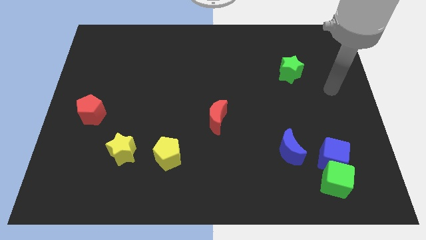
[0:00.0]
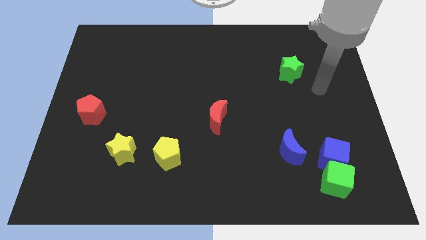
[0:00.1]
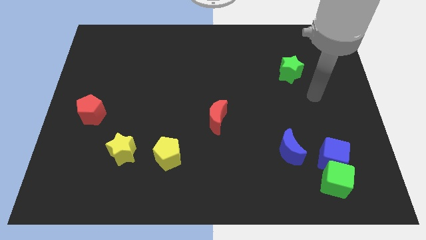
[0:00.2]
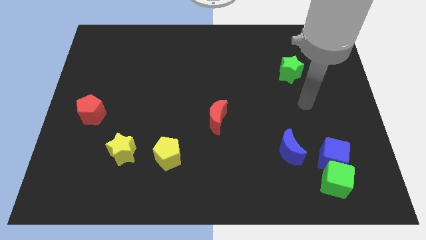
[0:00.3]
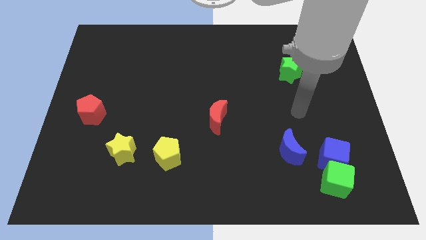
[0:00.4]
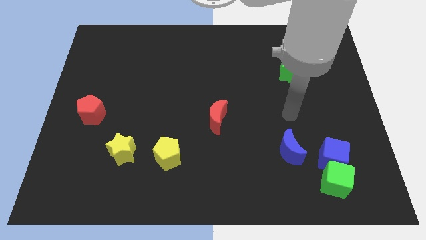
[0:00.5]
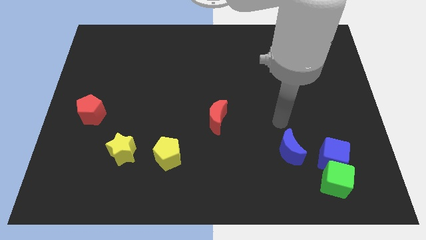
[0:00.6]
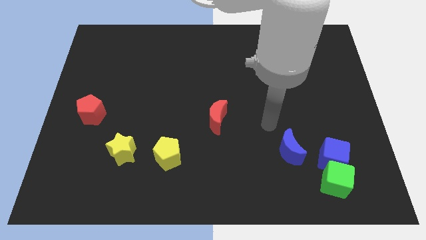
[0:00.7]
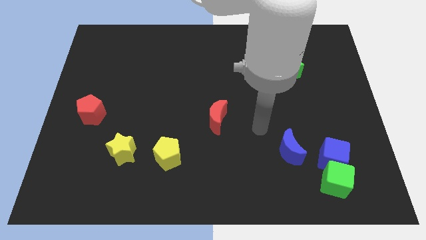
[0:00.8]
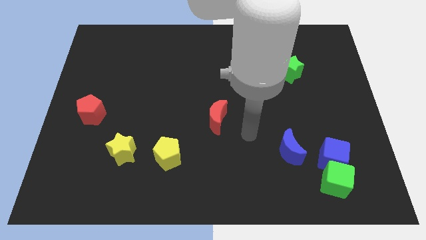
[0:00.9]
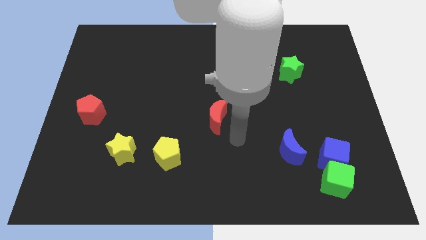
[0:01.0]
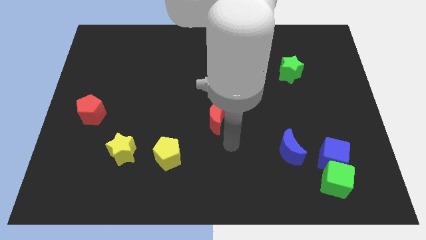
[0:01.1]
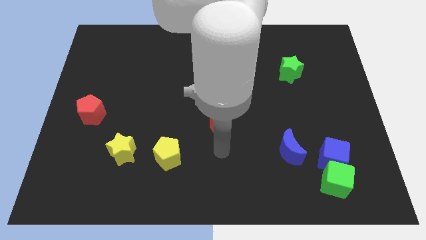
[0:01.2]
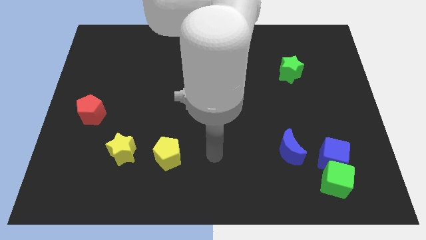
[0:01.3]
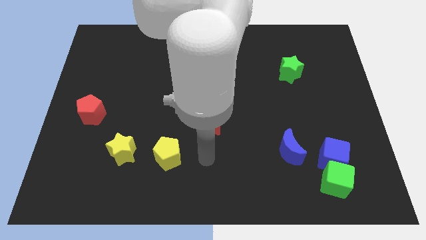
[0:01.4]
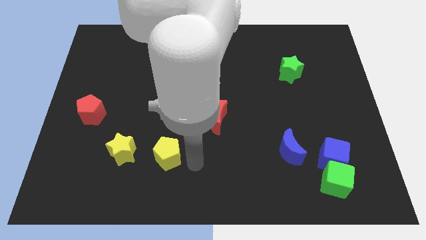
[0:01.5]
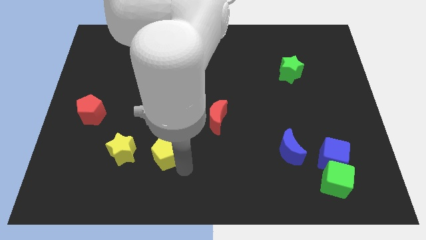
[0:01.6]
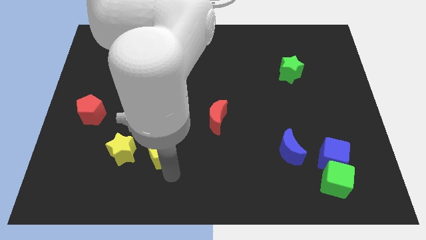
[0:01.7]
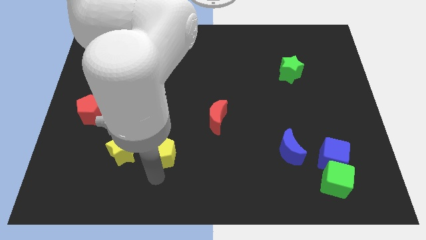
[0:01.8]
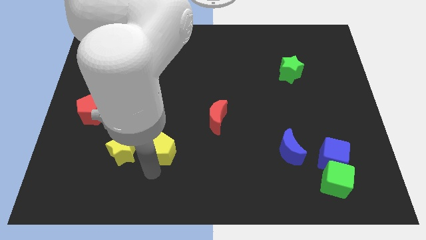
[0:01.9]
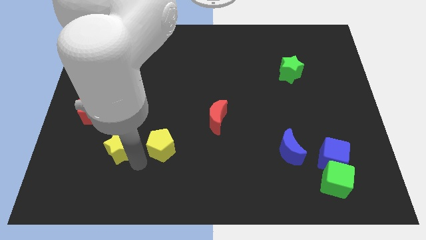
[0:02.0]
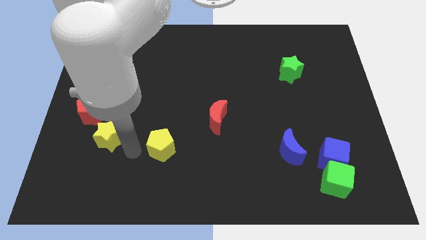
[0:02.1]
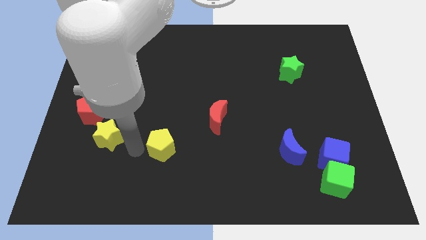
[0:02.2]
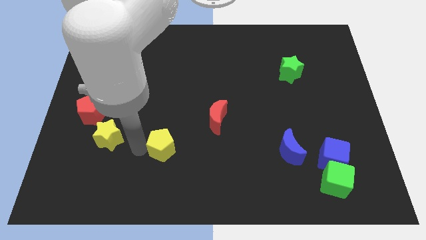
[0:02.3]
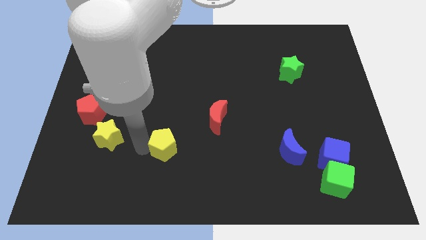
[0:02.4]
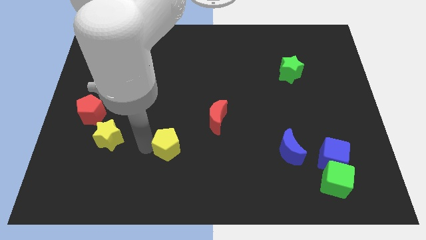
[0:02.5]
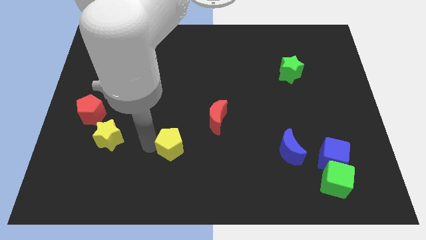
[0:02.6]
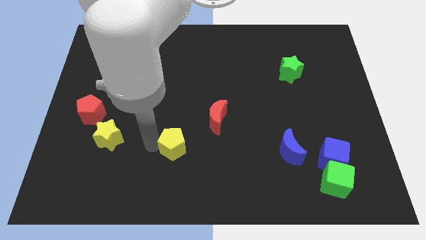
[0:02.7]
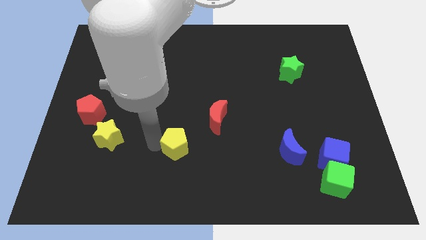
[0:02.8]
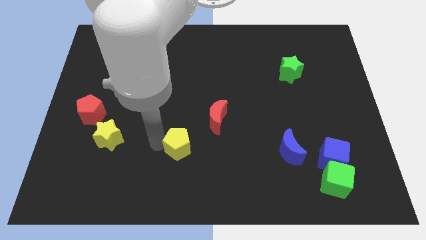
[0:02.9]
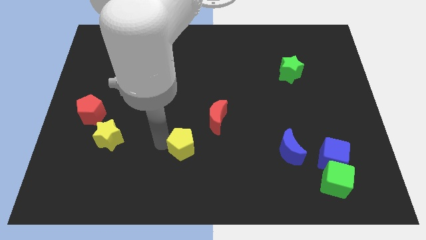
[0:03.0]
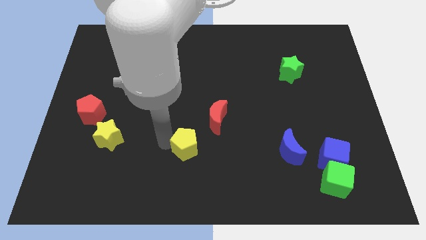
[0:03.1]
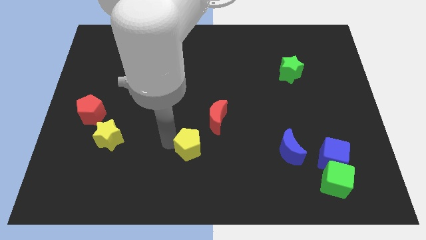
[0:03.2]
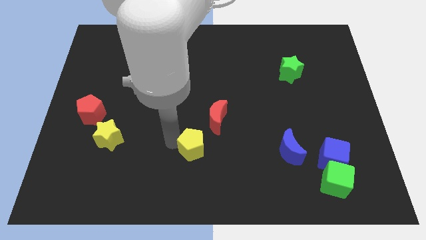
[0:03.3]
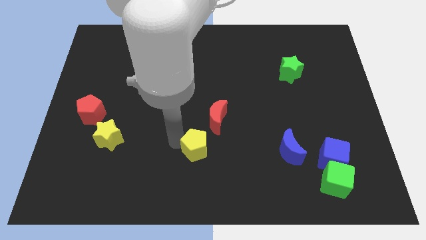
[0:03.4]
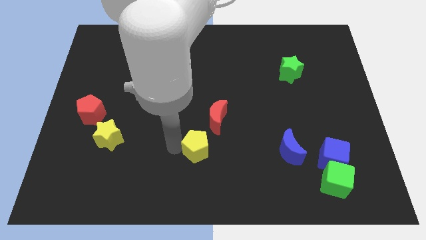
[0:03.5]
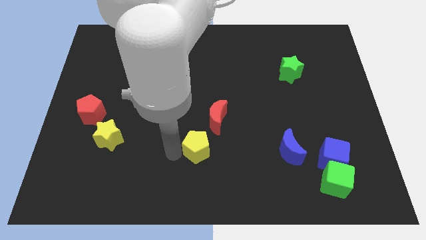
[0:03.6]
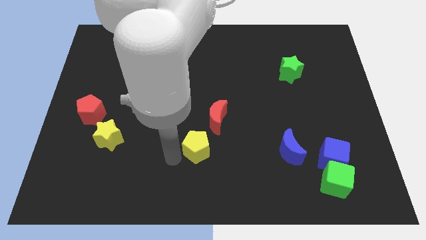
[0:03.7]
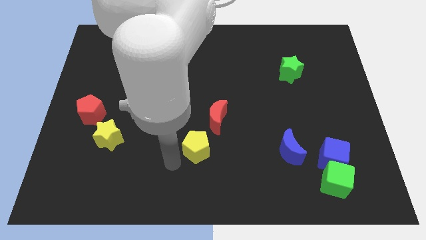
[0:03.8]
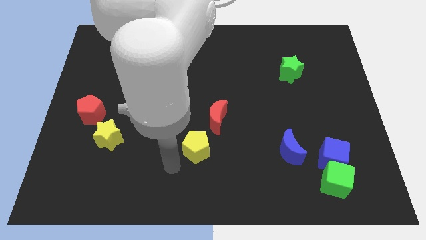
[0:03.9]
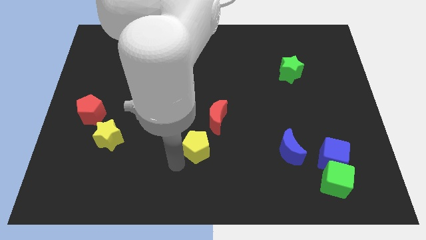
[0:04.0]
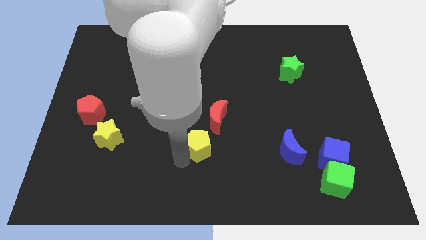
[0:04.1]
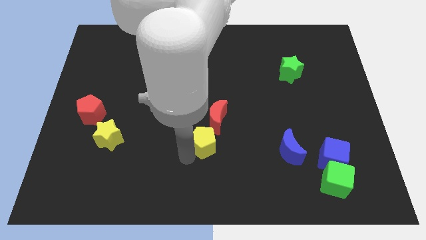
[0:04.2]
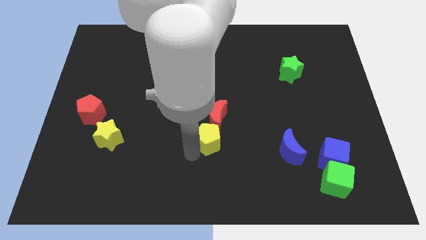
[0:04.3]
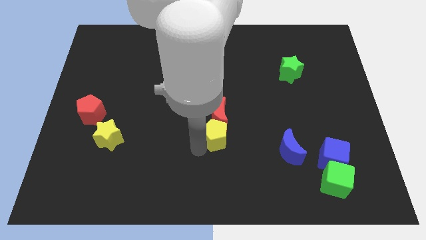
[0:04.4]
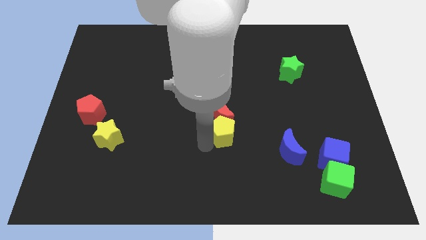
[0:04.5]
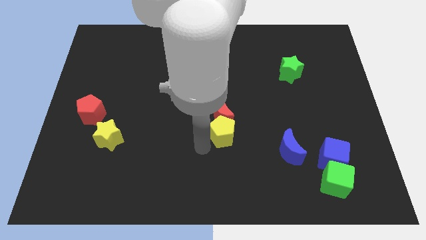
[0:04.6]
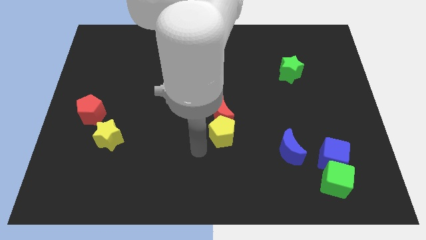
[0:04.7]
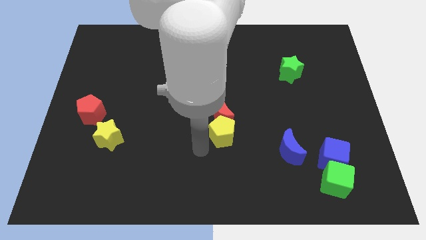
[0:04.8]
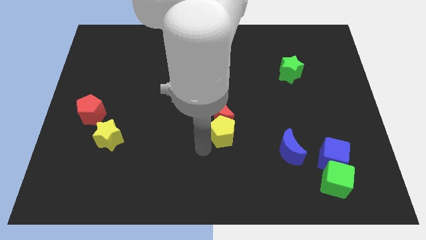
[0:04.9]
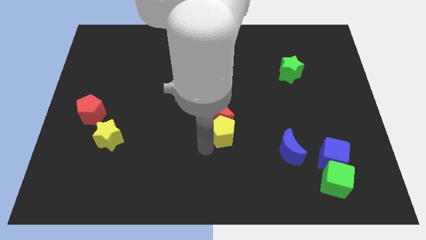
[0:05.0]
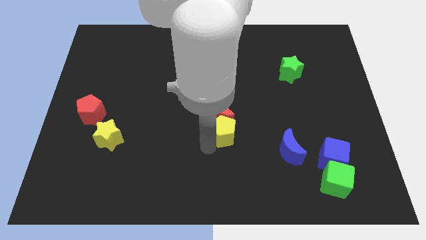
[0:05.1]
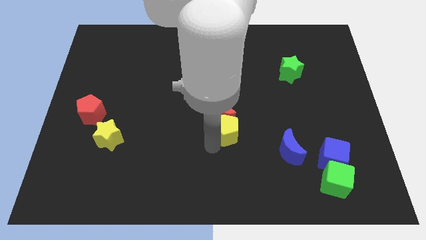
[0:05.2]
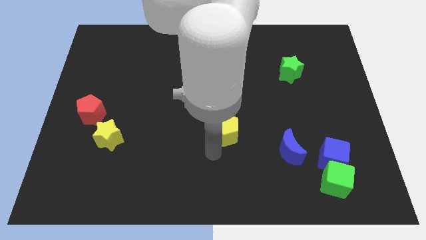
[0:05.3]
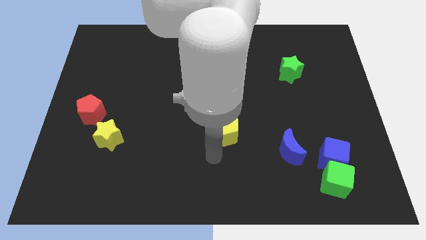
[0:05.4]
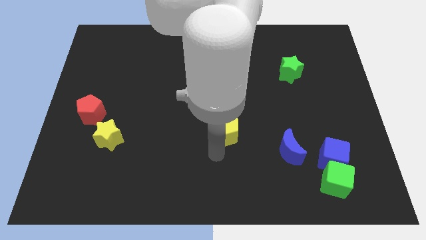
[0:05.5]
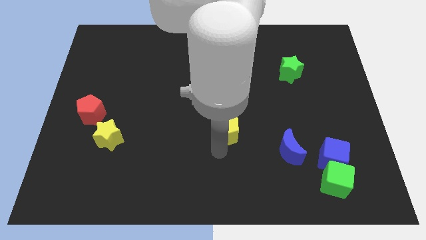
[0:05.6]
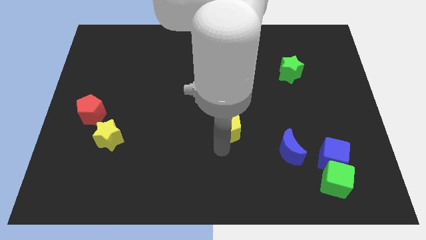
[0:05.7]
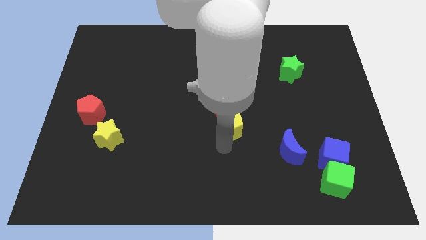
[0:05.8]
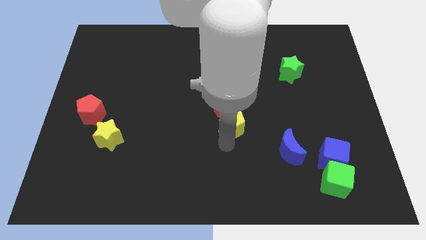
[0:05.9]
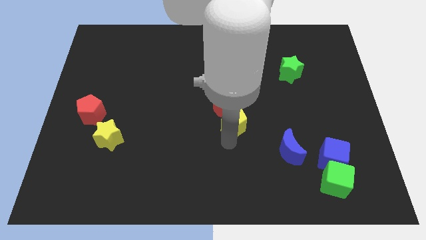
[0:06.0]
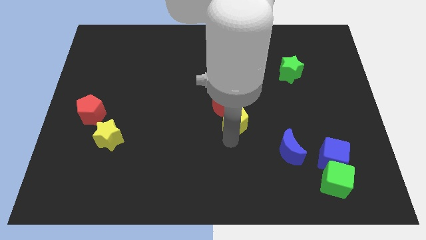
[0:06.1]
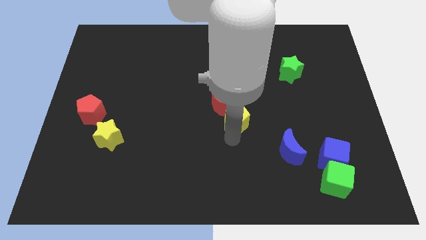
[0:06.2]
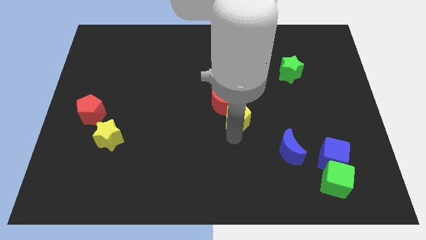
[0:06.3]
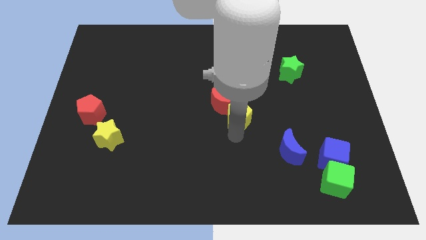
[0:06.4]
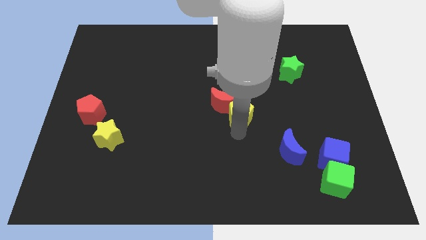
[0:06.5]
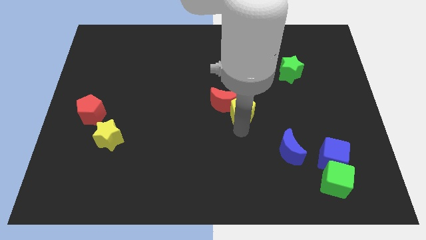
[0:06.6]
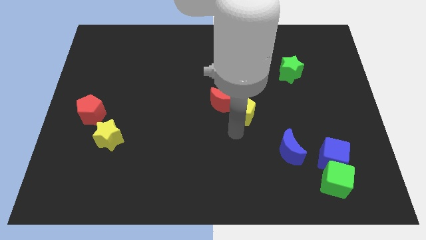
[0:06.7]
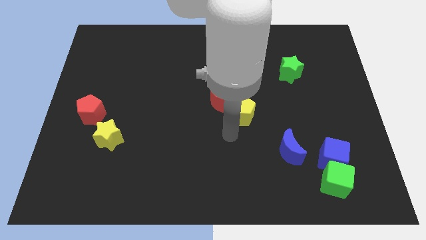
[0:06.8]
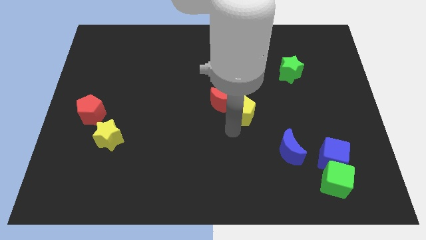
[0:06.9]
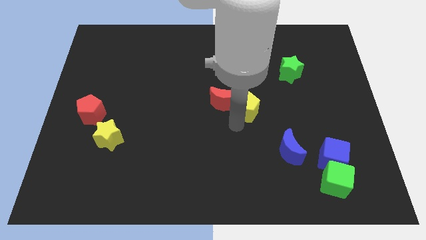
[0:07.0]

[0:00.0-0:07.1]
move the yellow pentagon up and then to the right

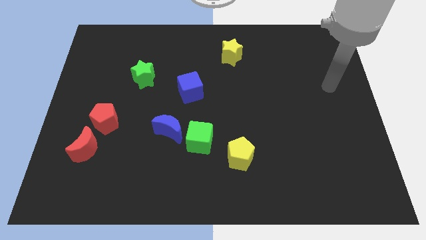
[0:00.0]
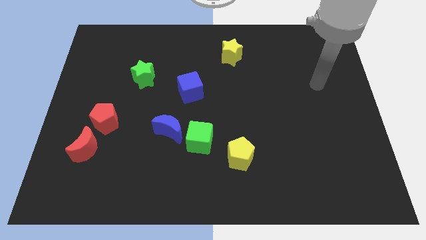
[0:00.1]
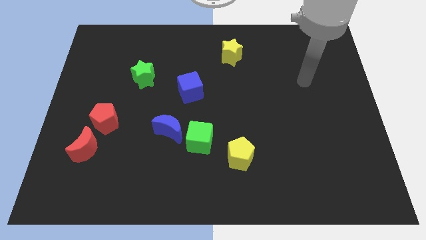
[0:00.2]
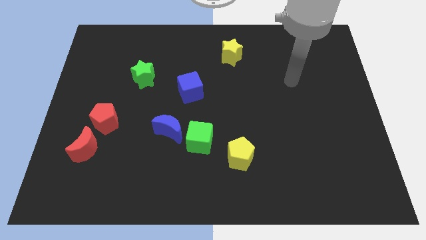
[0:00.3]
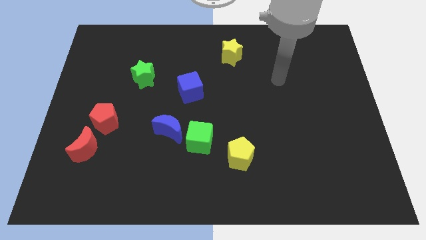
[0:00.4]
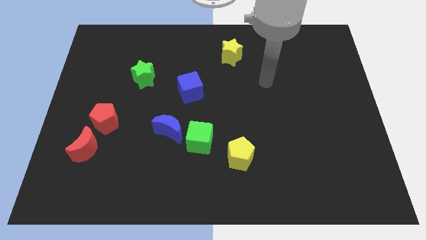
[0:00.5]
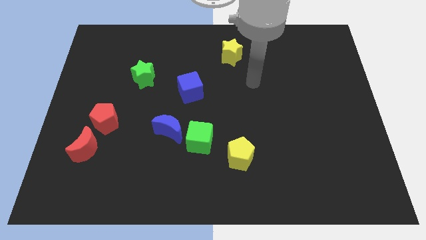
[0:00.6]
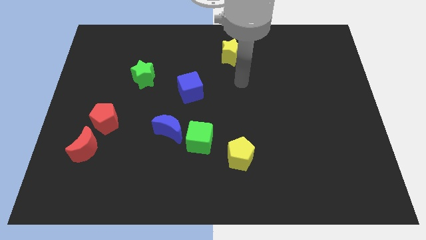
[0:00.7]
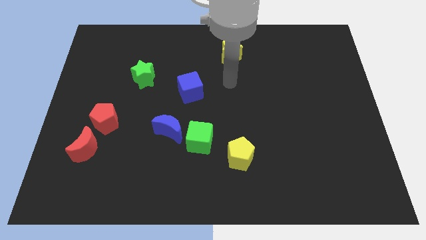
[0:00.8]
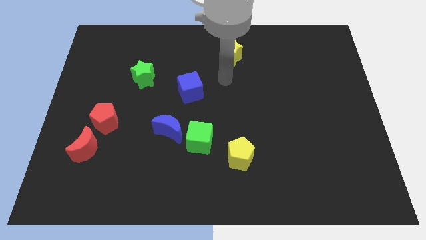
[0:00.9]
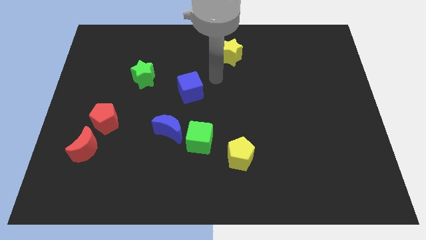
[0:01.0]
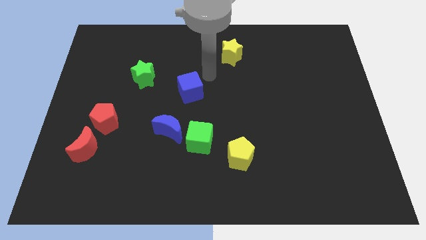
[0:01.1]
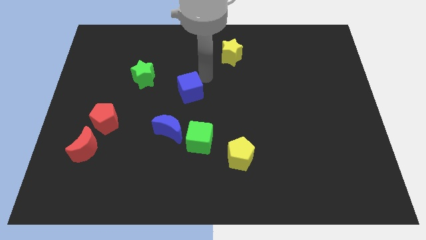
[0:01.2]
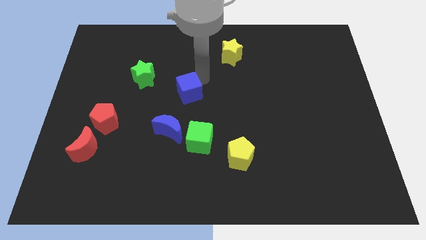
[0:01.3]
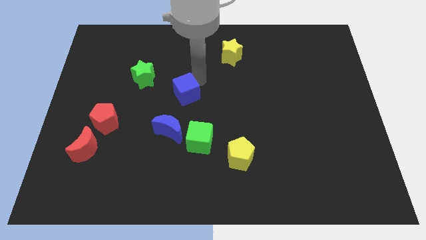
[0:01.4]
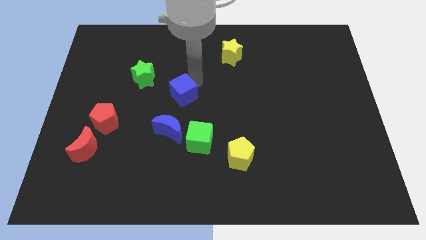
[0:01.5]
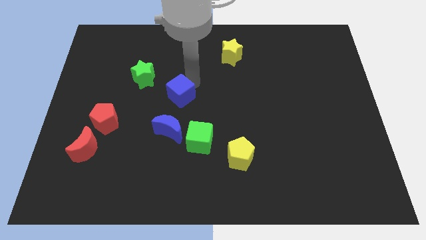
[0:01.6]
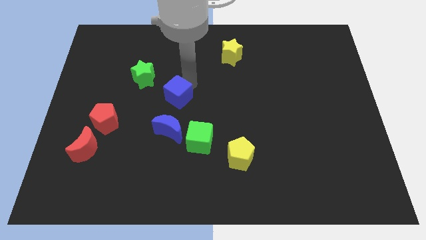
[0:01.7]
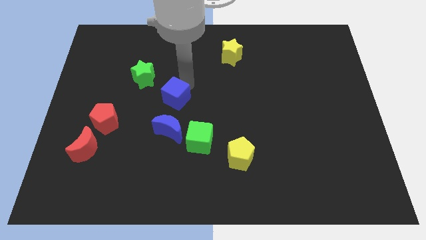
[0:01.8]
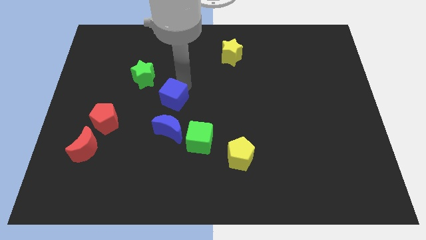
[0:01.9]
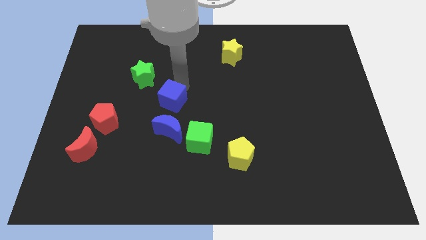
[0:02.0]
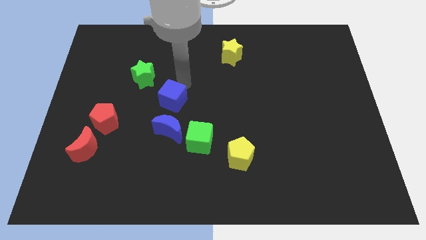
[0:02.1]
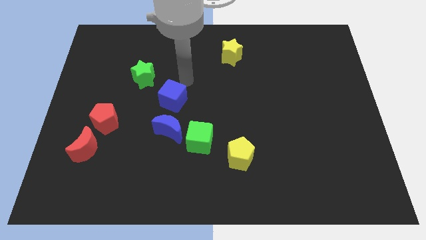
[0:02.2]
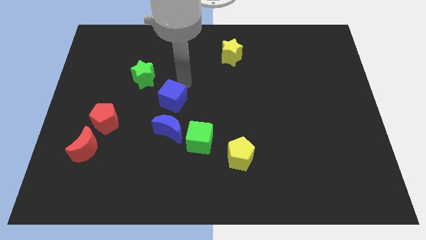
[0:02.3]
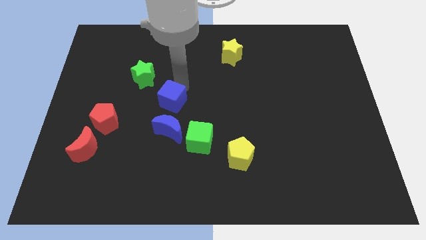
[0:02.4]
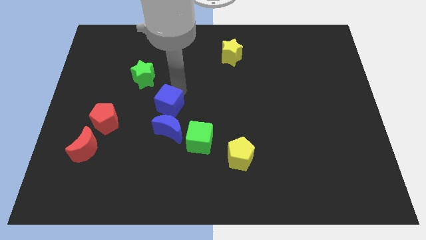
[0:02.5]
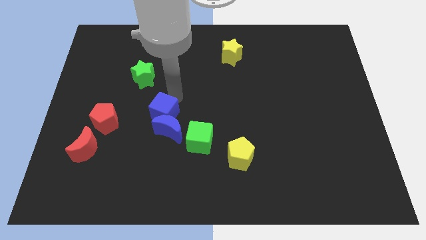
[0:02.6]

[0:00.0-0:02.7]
slightly slide the blue cube down and to the left
